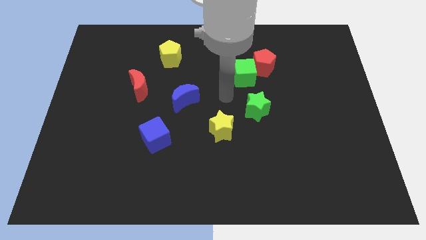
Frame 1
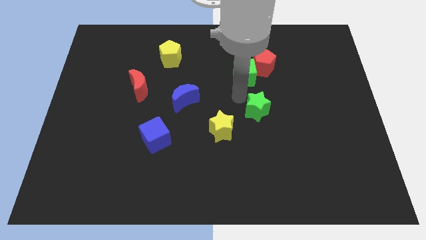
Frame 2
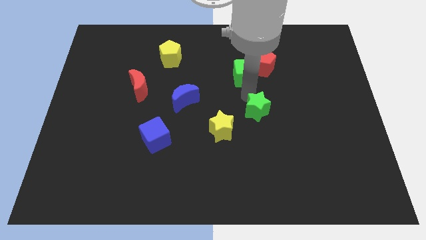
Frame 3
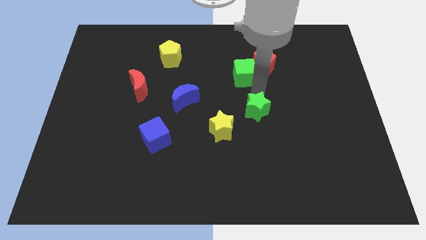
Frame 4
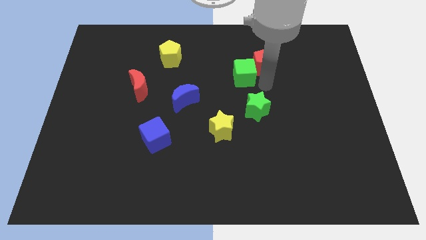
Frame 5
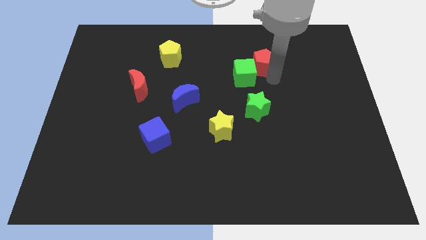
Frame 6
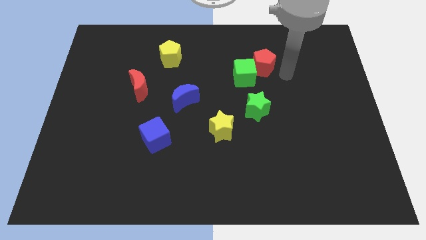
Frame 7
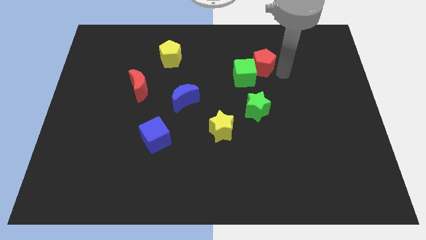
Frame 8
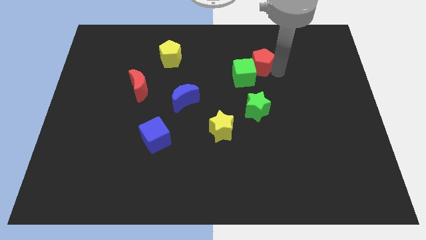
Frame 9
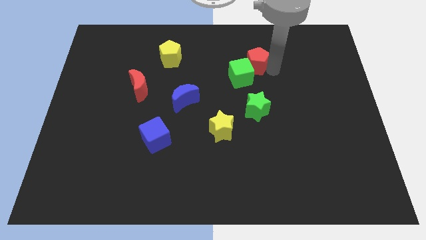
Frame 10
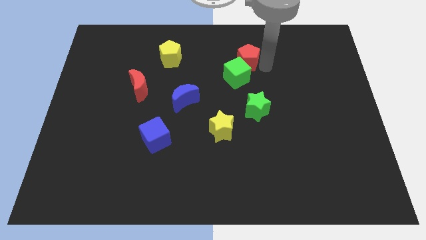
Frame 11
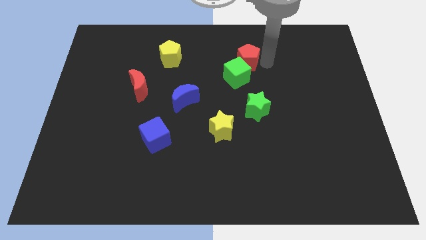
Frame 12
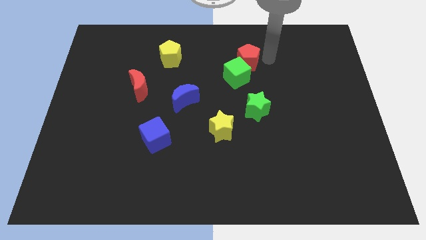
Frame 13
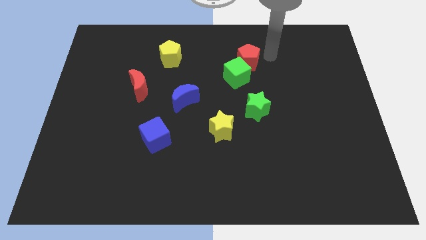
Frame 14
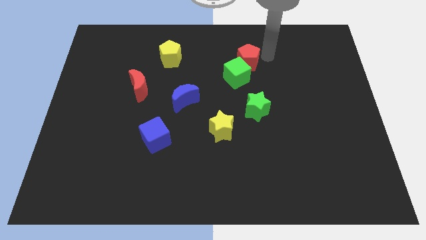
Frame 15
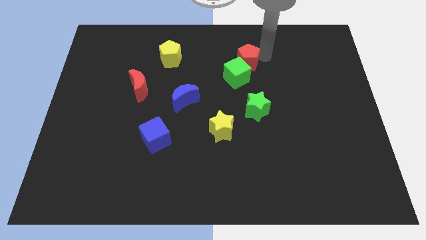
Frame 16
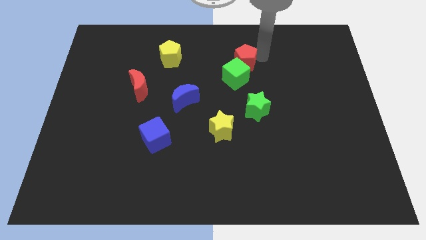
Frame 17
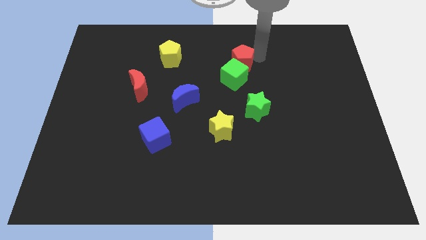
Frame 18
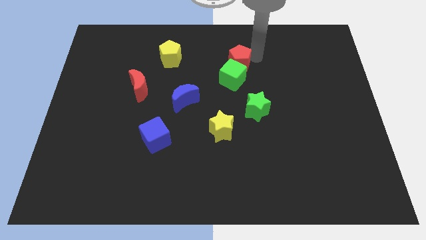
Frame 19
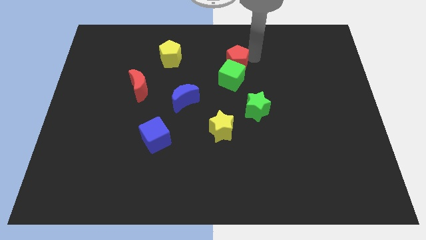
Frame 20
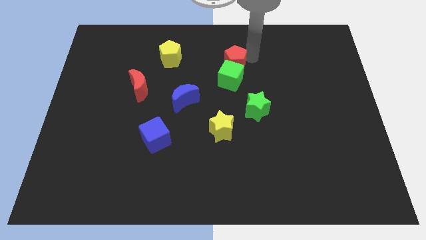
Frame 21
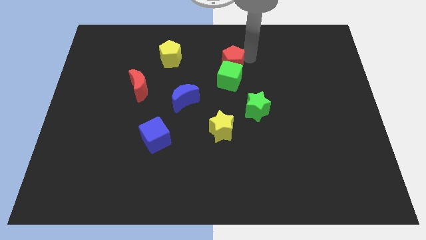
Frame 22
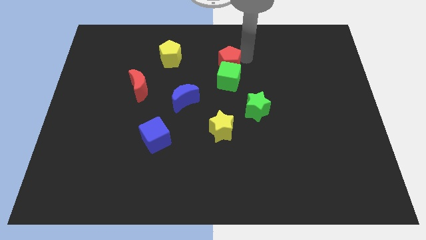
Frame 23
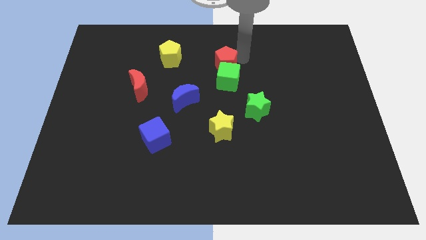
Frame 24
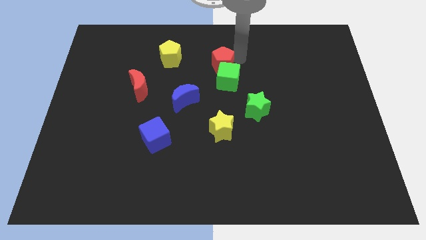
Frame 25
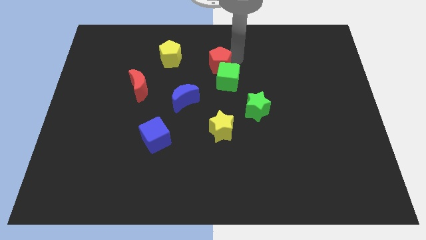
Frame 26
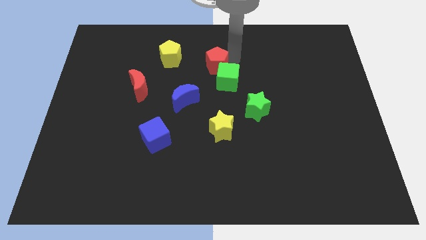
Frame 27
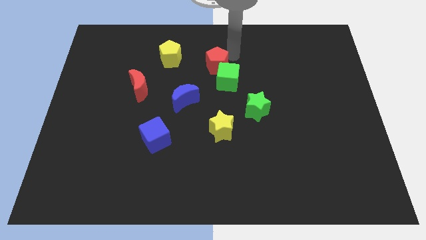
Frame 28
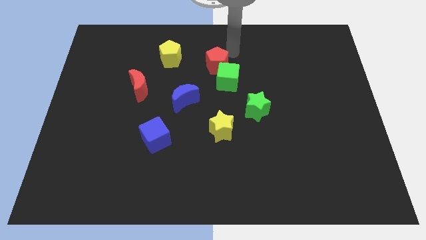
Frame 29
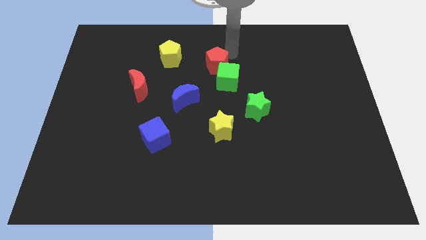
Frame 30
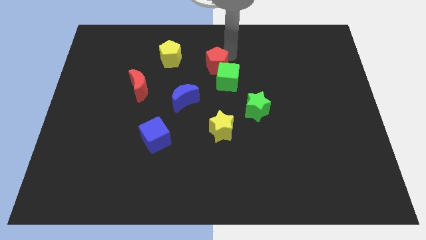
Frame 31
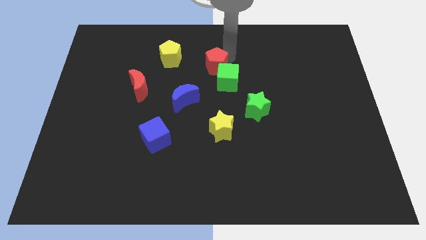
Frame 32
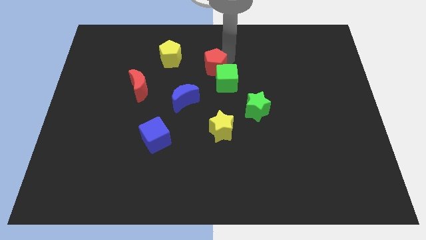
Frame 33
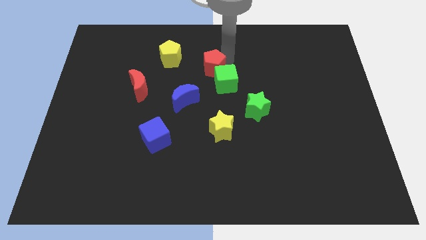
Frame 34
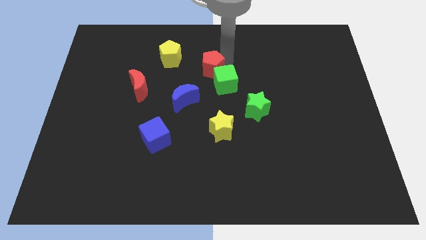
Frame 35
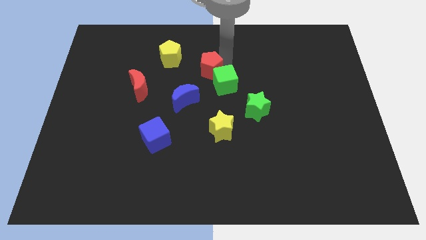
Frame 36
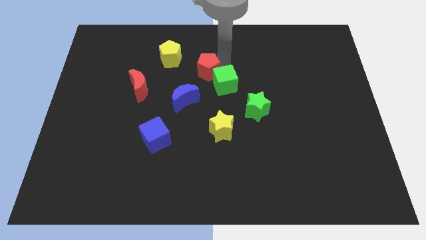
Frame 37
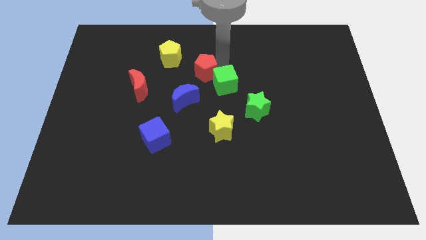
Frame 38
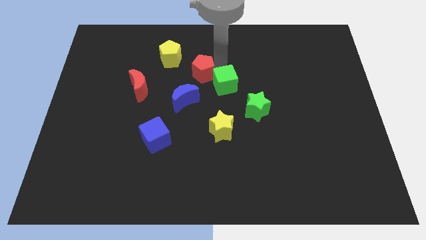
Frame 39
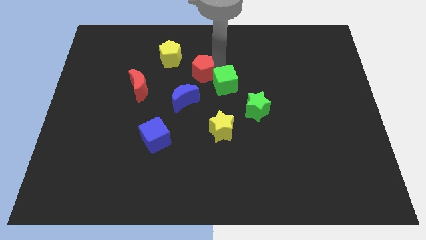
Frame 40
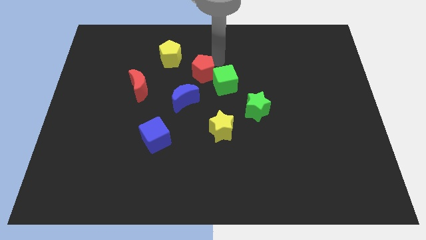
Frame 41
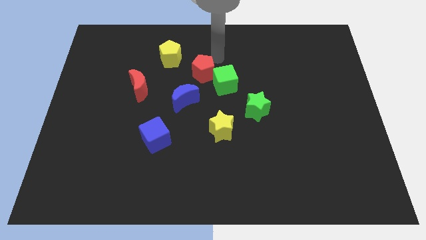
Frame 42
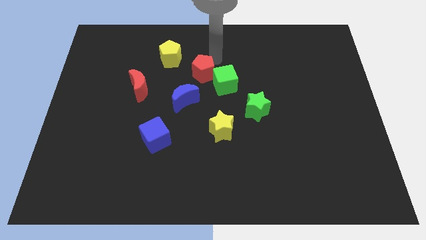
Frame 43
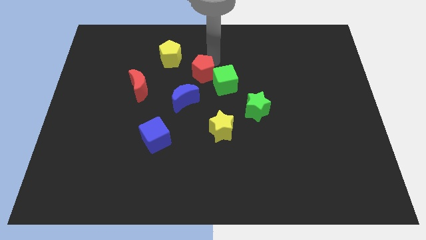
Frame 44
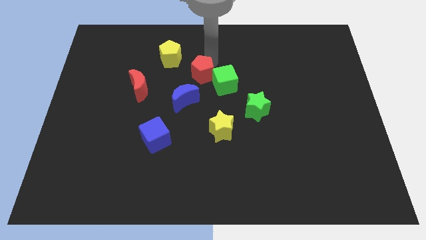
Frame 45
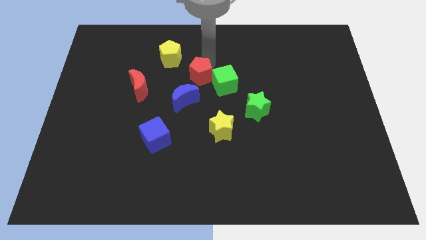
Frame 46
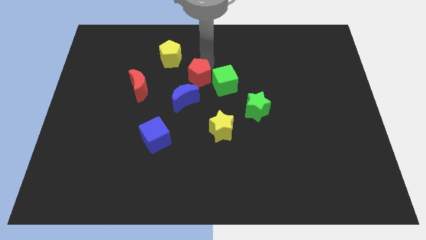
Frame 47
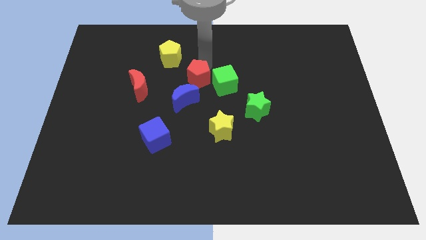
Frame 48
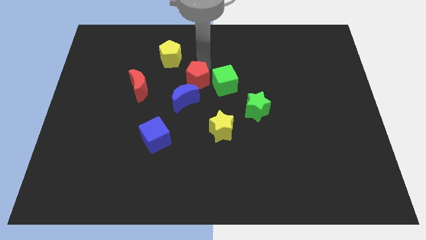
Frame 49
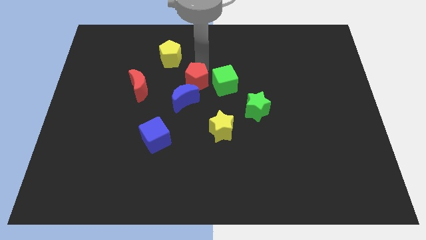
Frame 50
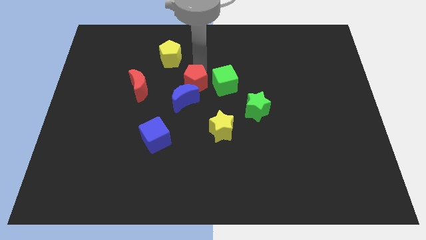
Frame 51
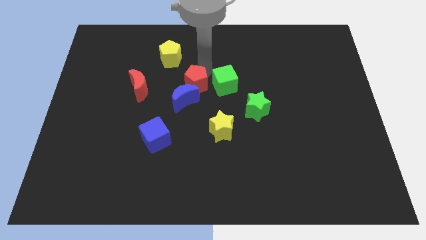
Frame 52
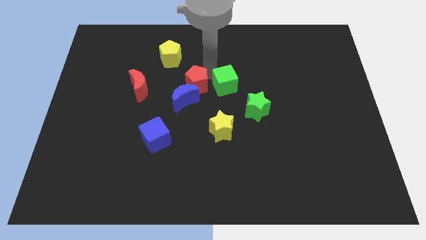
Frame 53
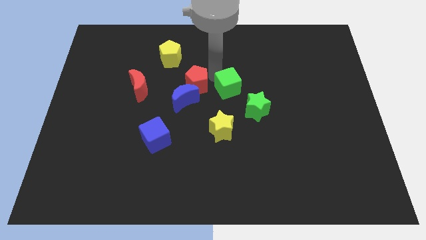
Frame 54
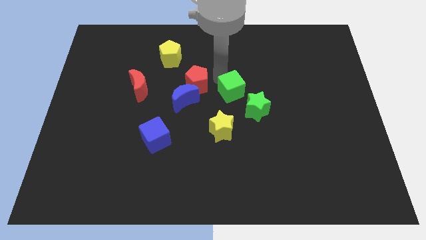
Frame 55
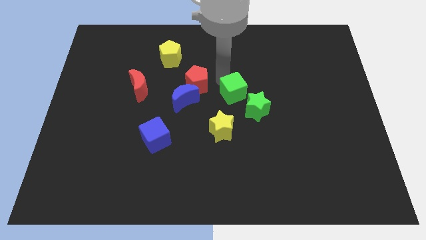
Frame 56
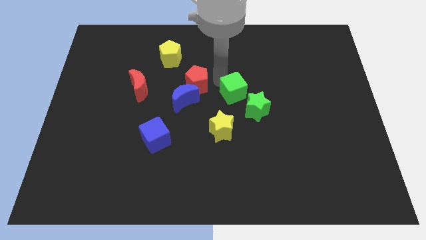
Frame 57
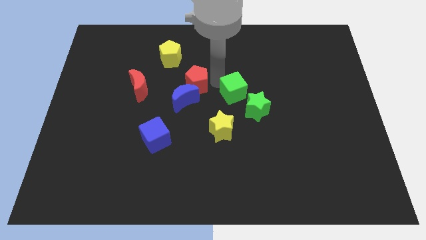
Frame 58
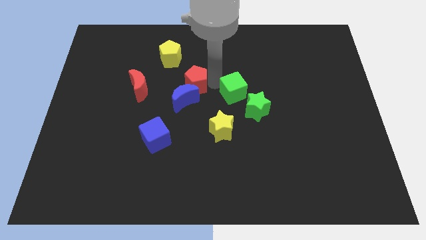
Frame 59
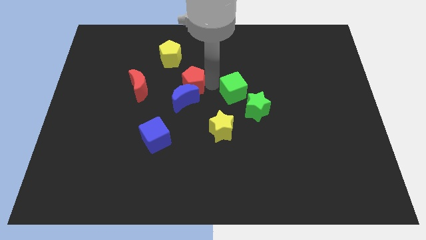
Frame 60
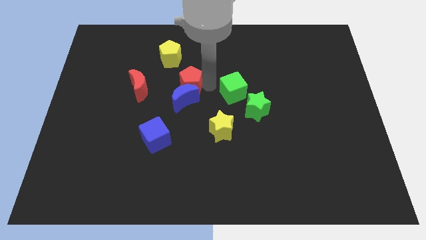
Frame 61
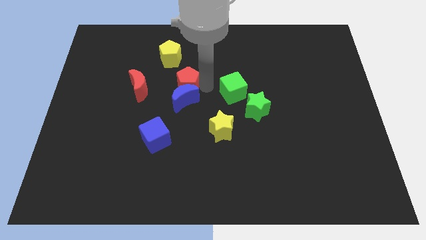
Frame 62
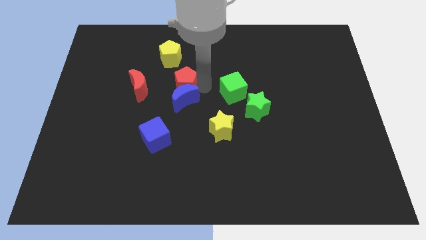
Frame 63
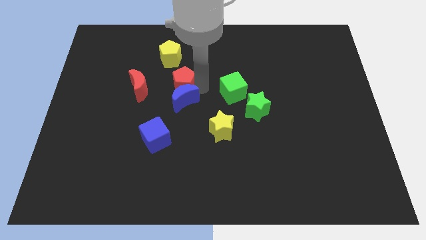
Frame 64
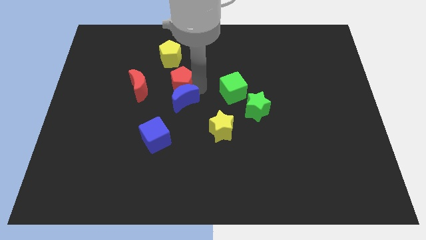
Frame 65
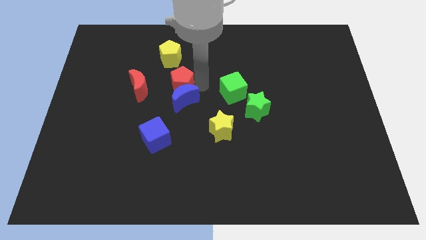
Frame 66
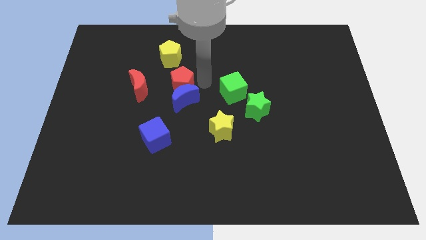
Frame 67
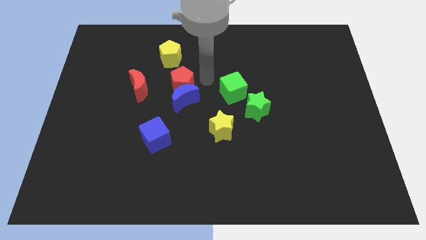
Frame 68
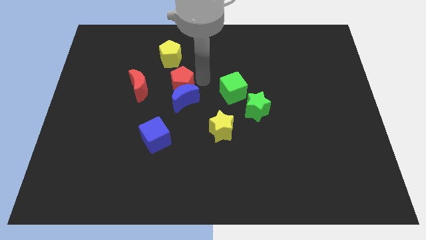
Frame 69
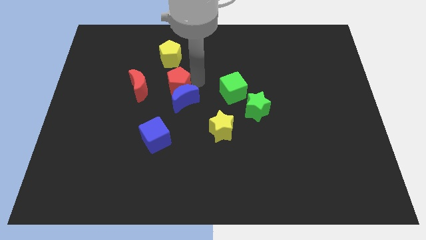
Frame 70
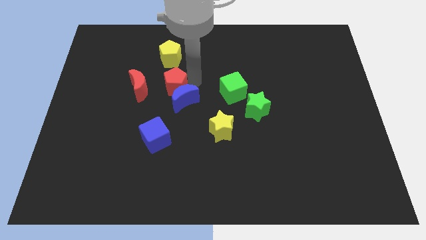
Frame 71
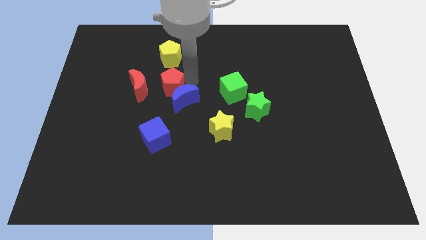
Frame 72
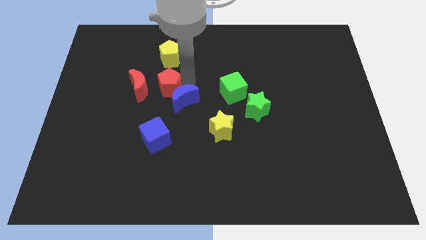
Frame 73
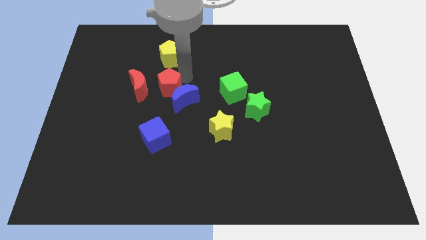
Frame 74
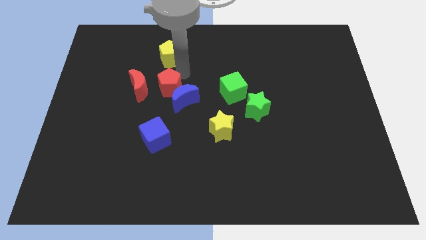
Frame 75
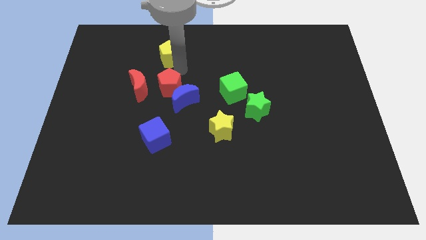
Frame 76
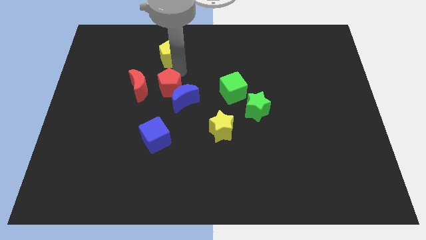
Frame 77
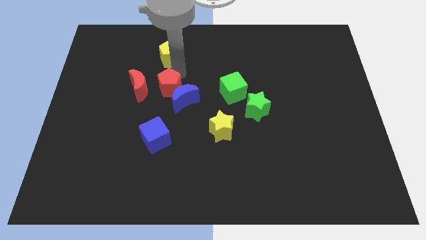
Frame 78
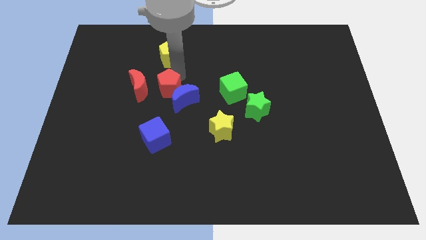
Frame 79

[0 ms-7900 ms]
push the red pentagon to the bottom right of the red moon
